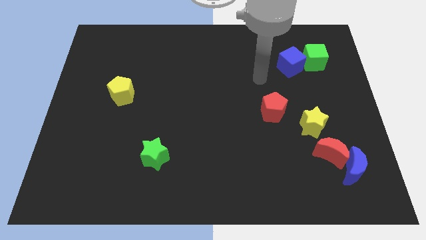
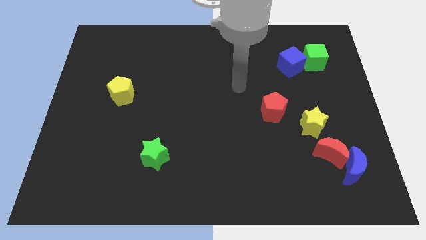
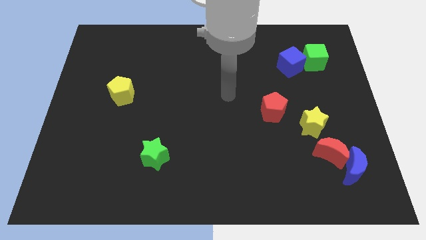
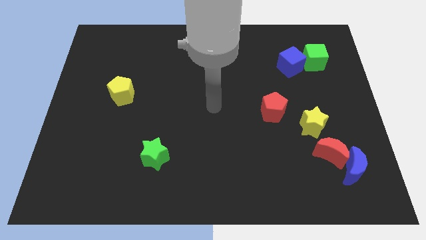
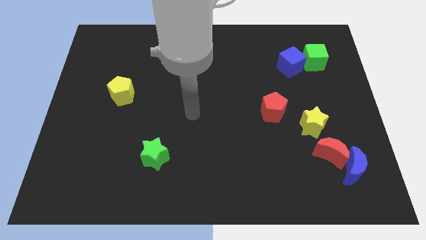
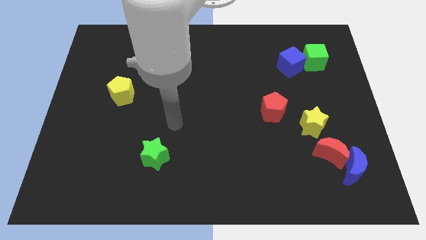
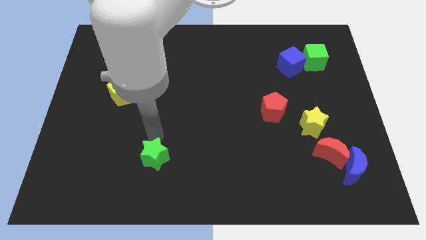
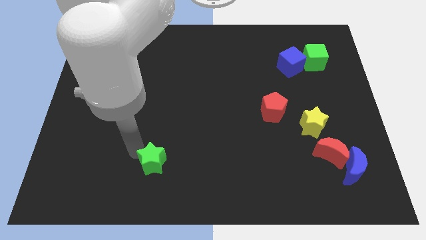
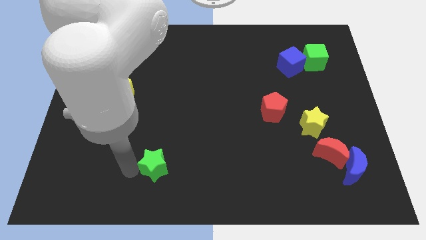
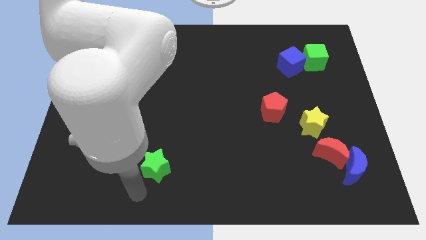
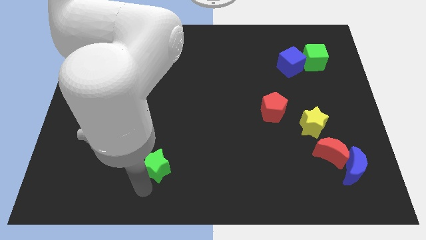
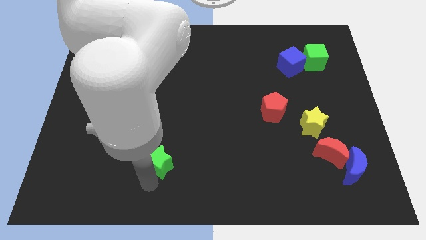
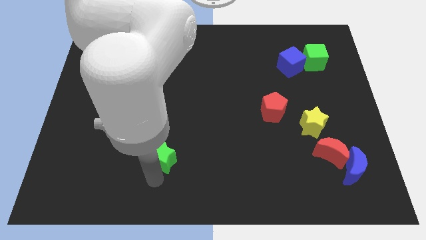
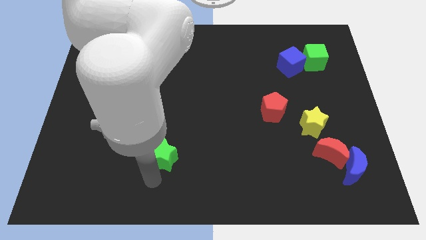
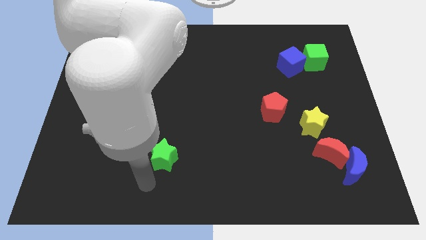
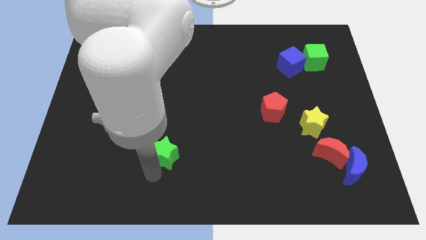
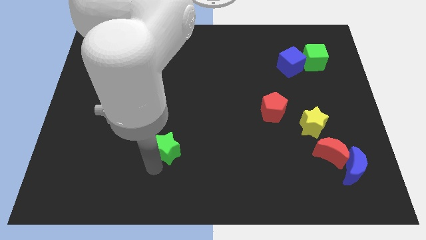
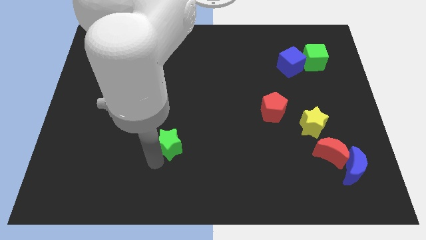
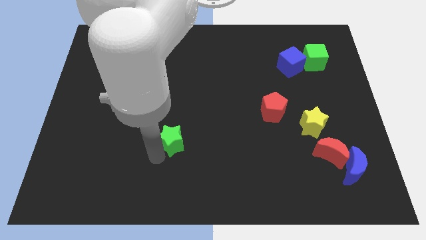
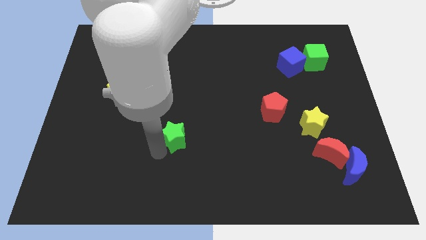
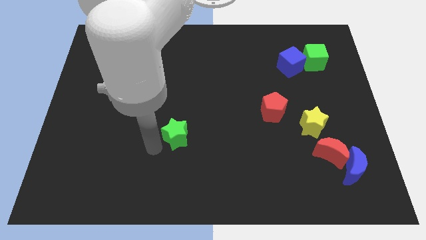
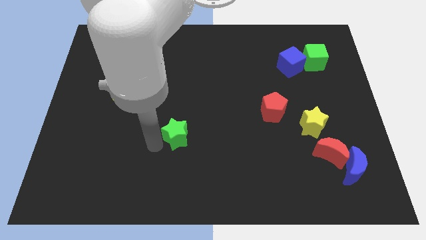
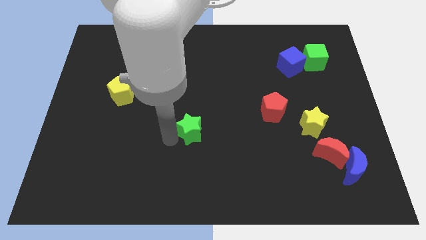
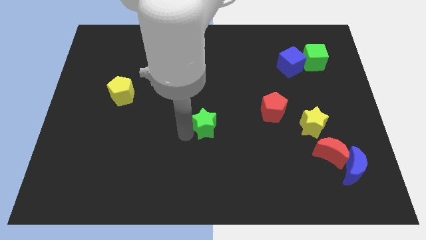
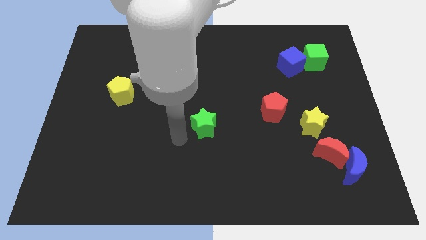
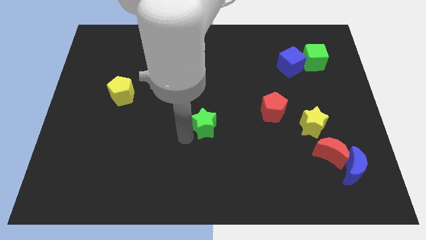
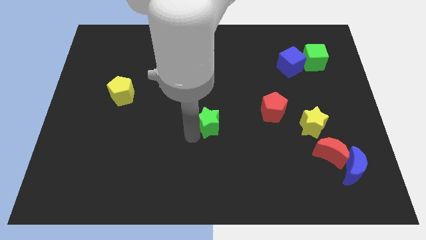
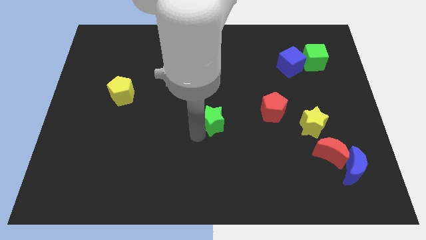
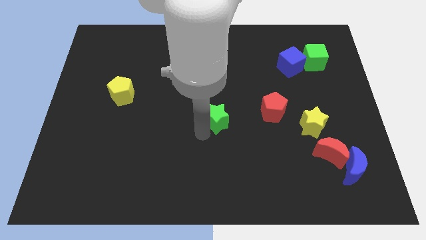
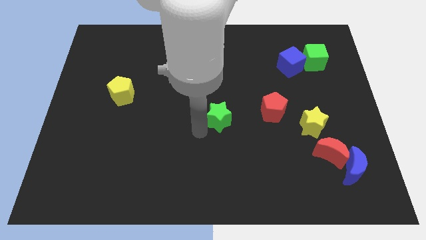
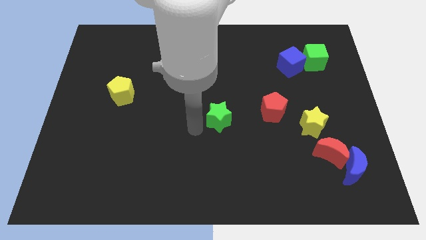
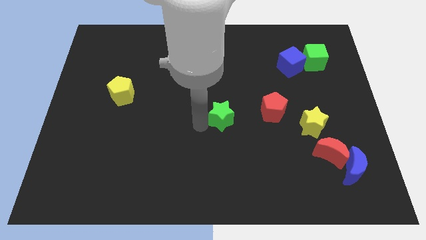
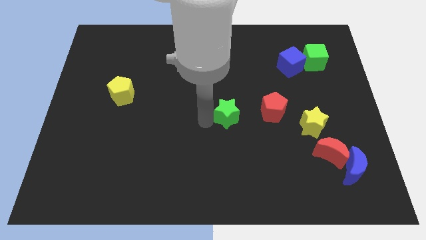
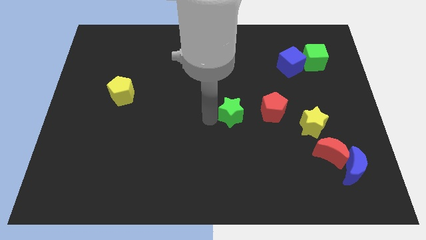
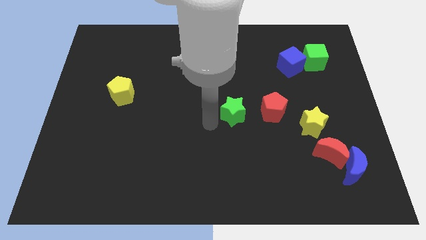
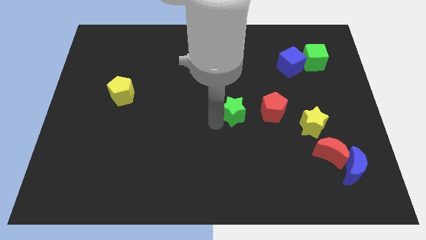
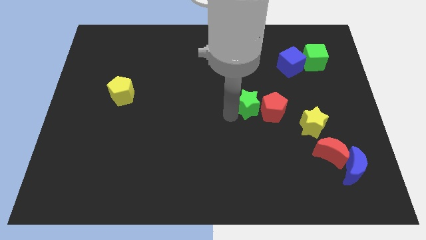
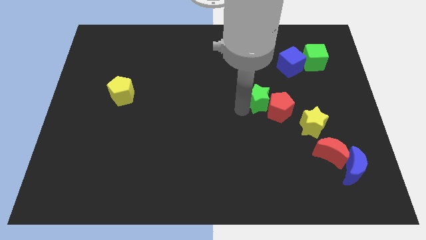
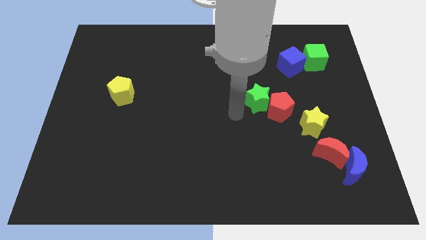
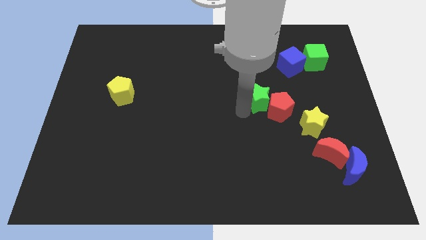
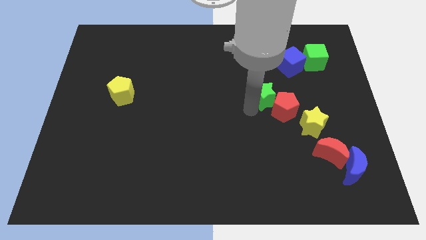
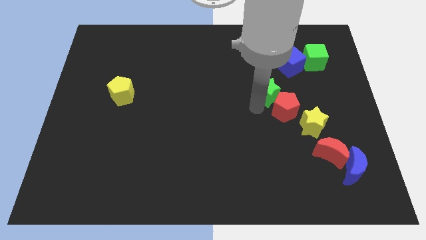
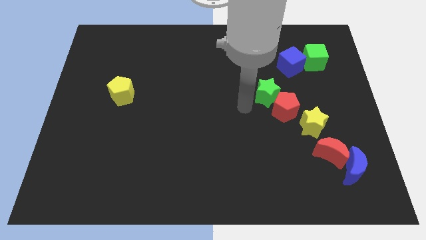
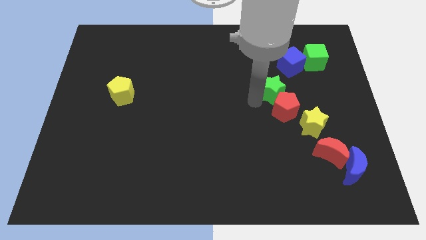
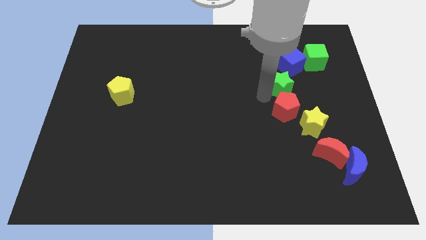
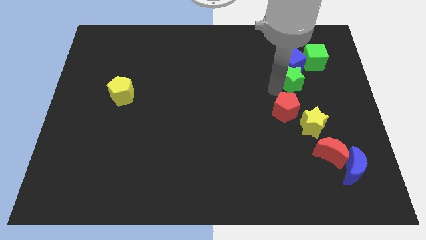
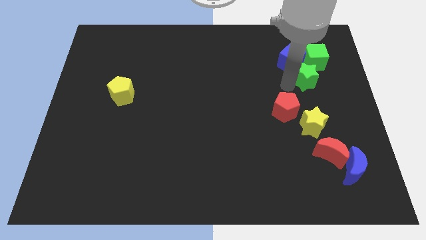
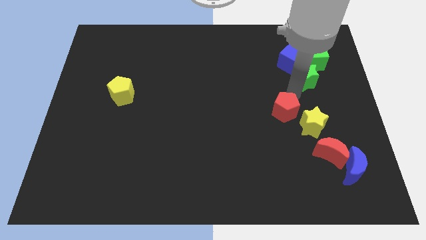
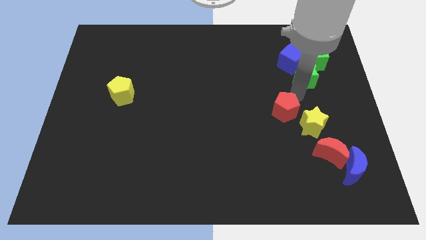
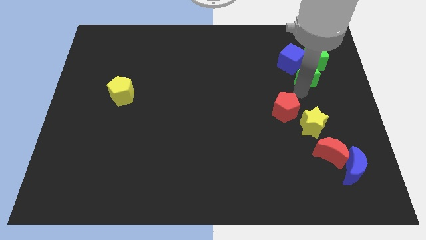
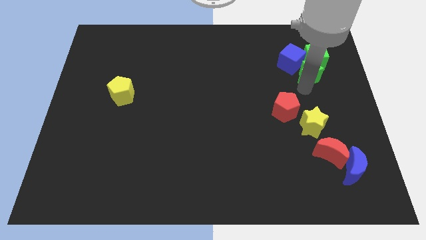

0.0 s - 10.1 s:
move the green star next to the green cube

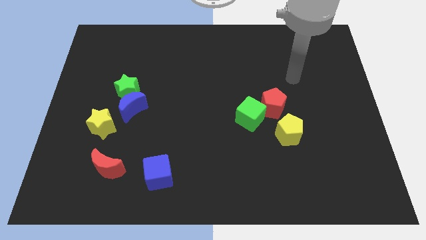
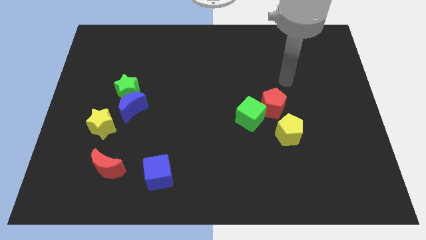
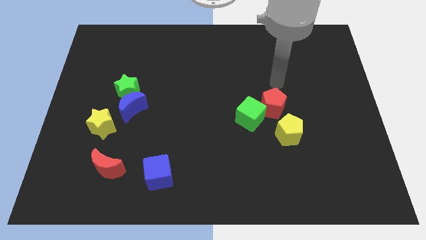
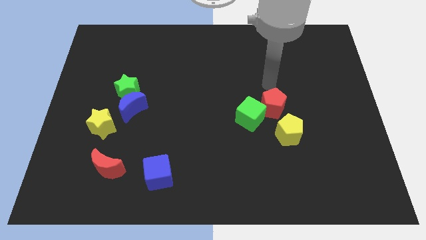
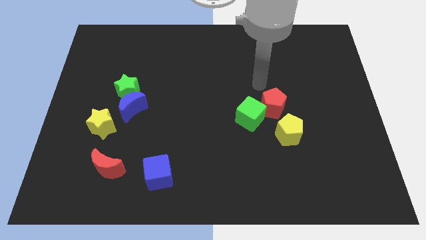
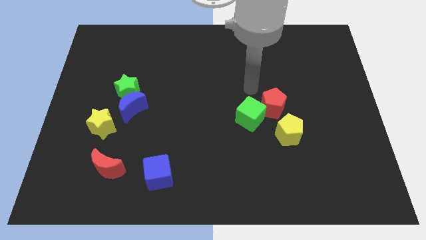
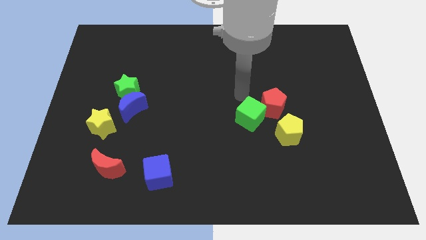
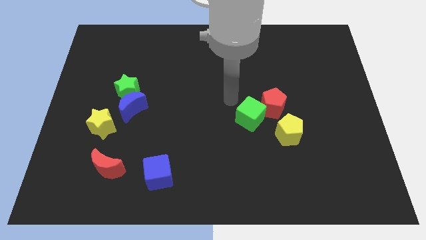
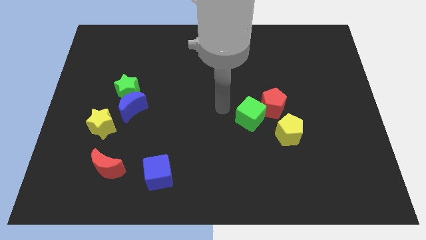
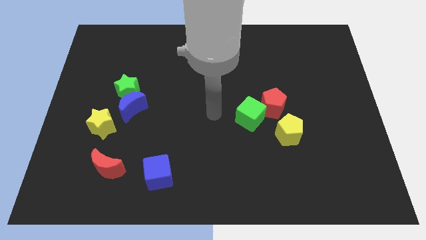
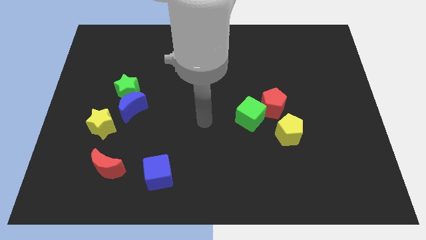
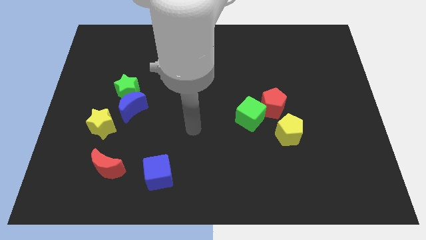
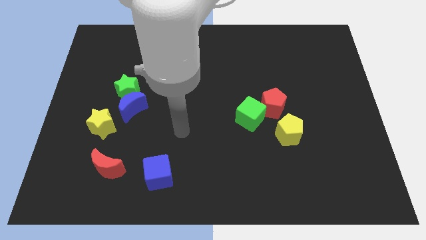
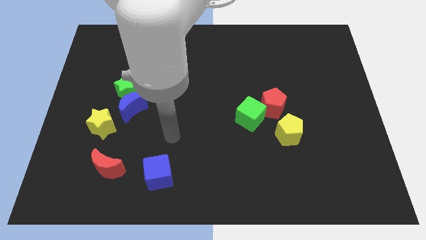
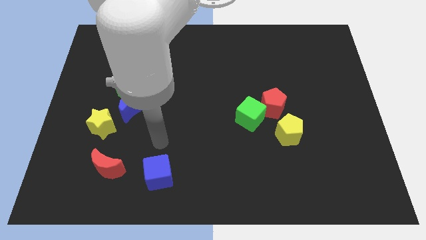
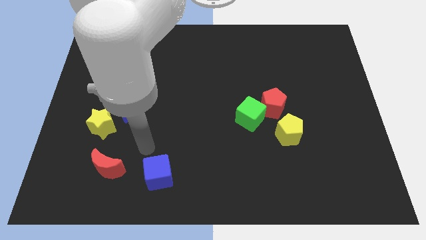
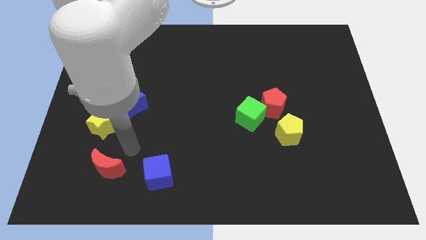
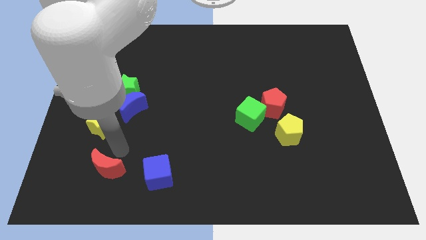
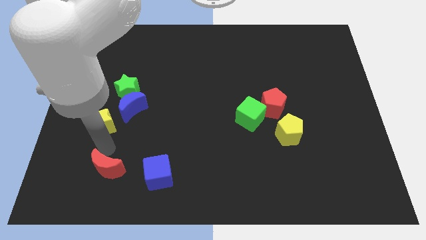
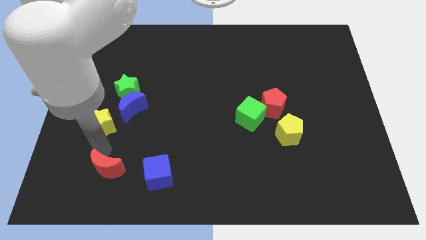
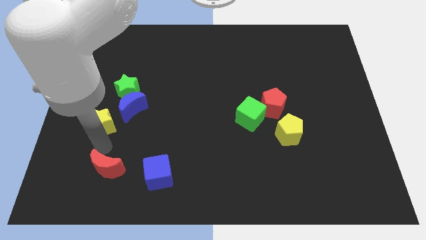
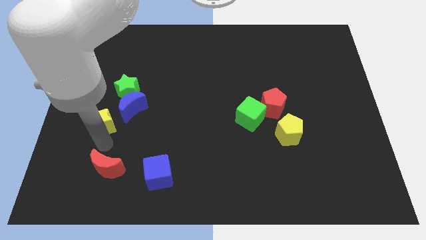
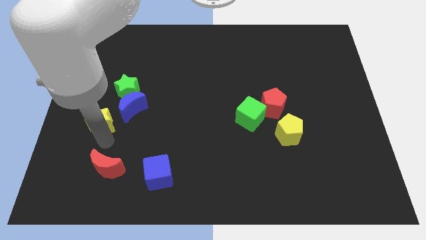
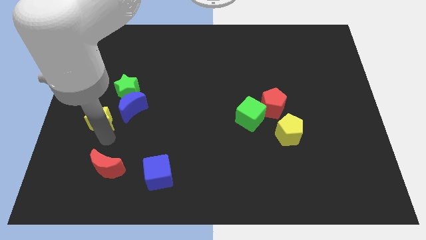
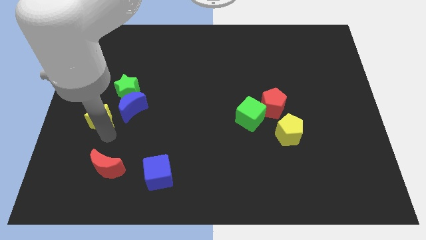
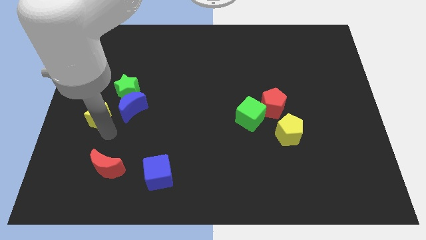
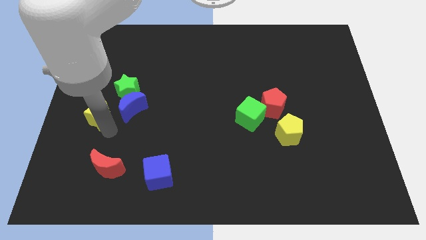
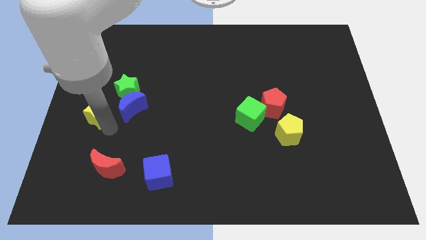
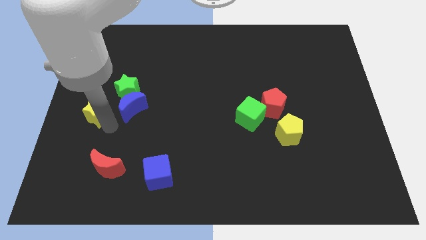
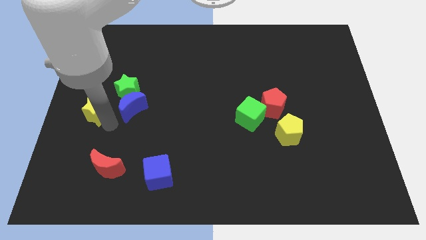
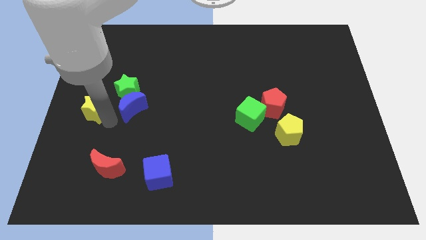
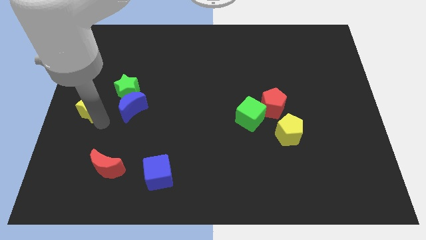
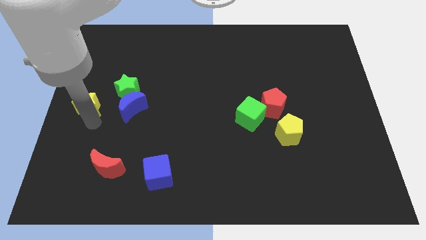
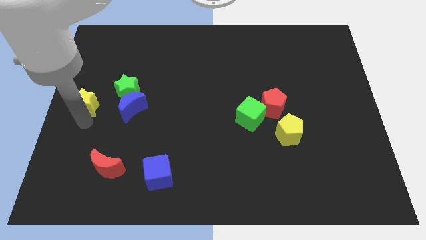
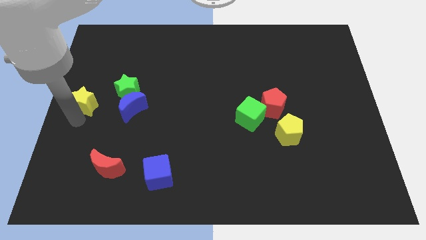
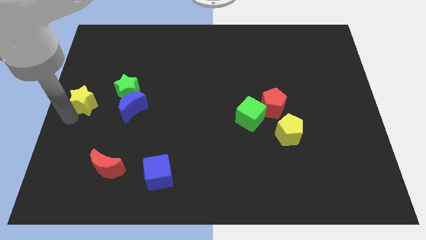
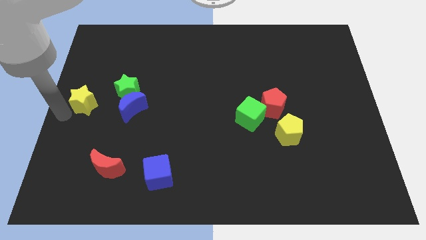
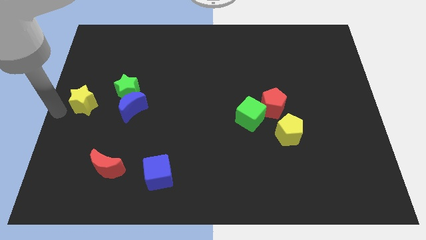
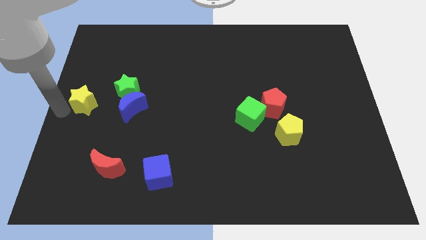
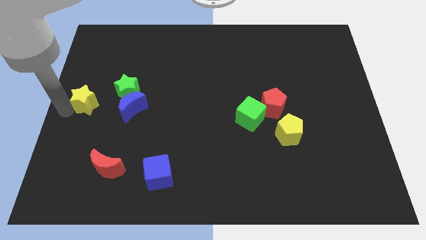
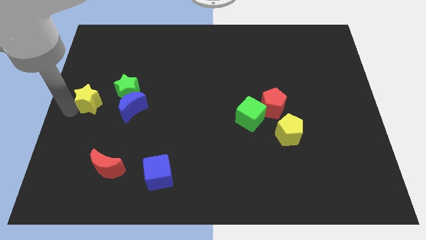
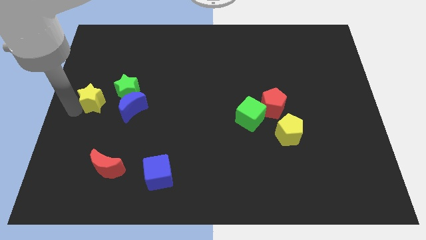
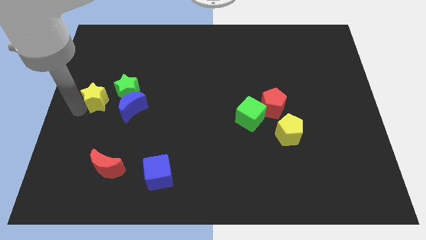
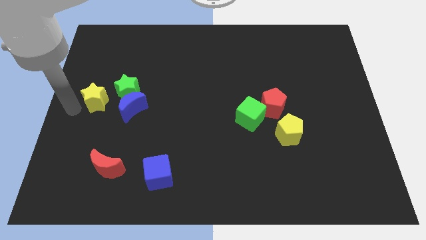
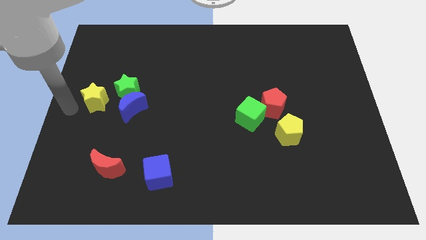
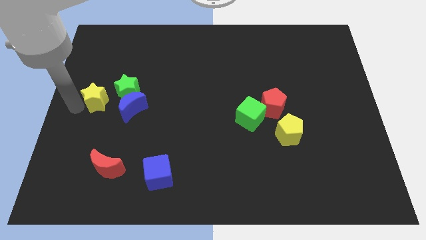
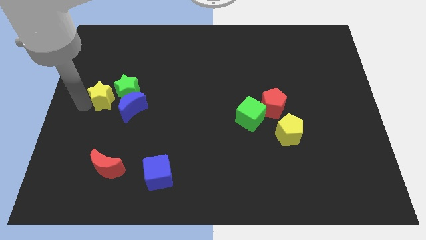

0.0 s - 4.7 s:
put the yellow star close to the green star
